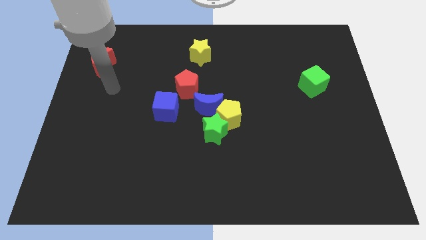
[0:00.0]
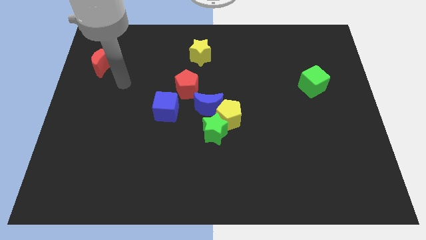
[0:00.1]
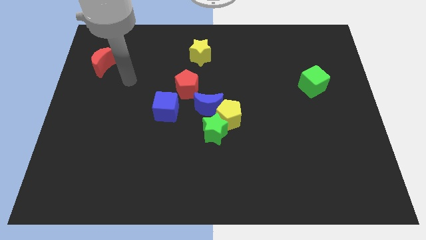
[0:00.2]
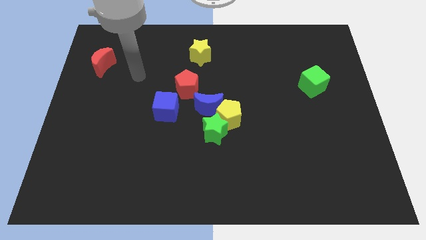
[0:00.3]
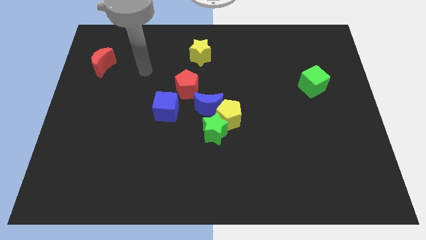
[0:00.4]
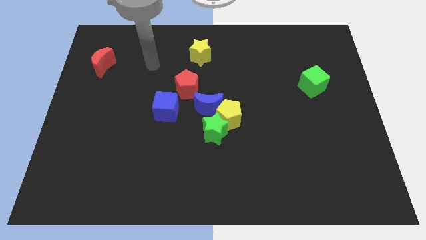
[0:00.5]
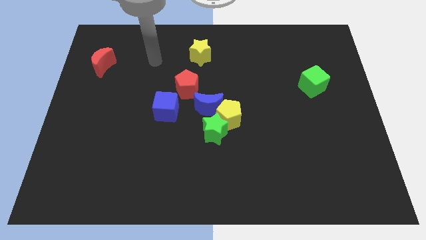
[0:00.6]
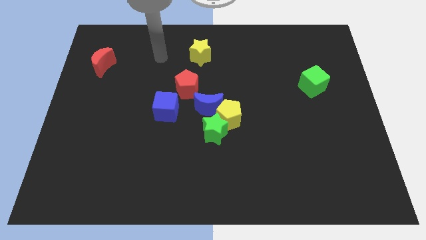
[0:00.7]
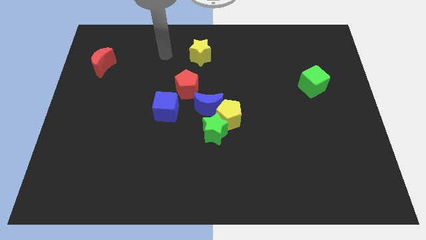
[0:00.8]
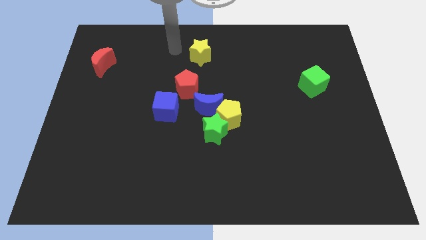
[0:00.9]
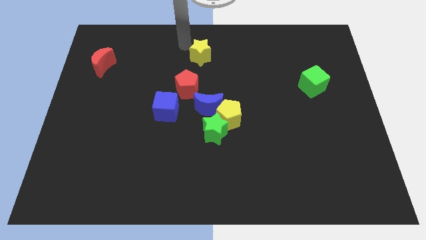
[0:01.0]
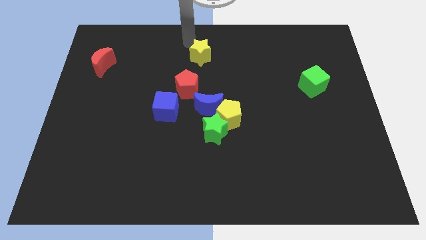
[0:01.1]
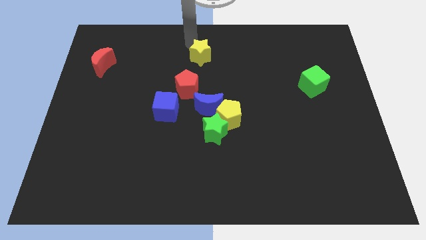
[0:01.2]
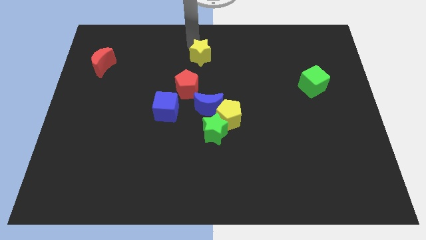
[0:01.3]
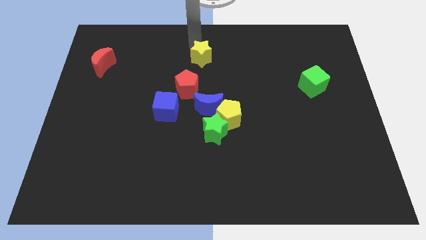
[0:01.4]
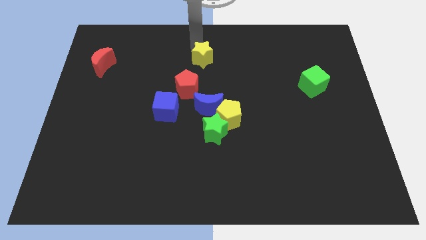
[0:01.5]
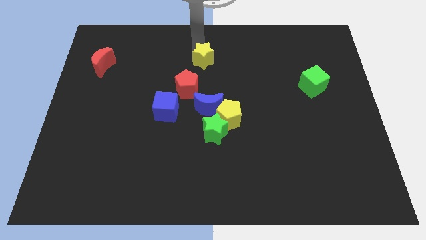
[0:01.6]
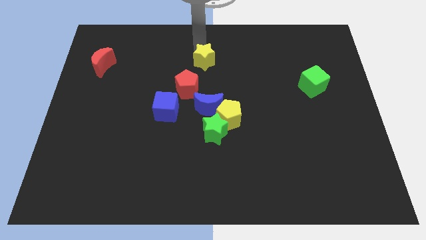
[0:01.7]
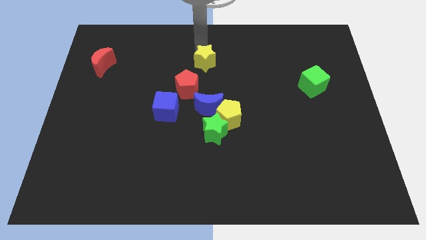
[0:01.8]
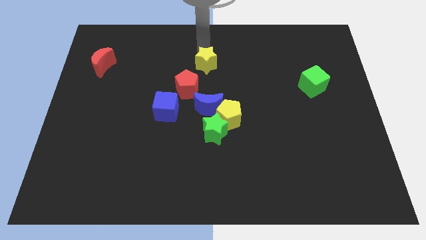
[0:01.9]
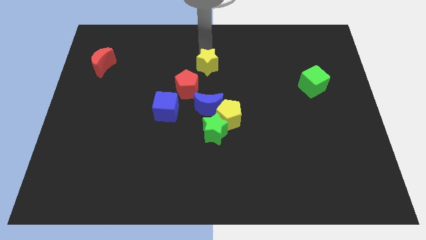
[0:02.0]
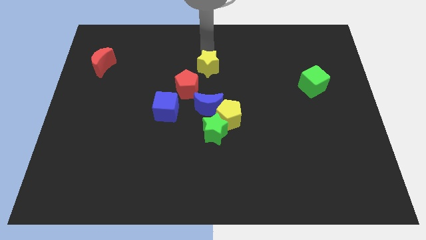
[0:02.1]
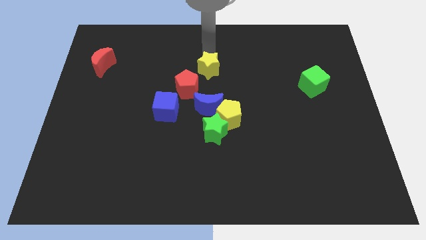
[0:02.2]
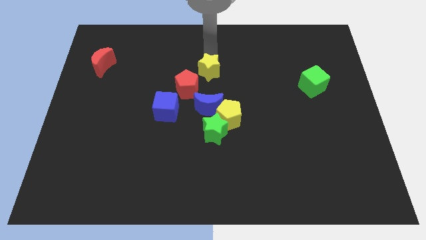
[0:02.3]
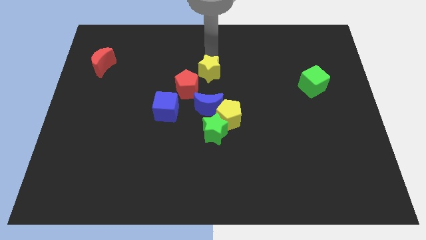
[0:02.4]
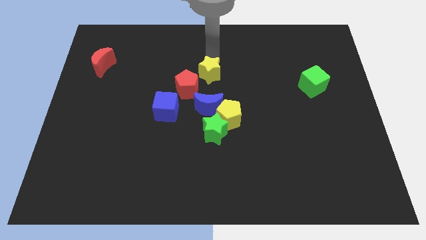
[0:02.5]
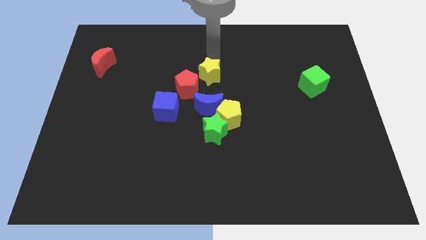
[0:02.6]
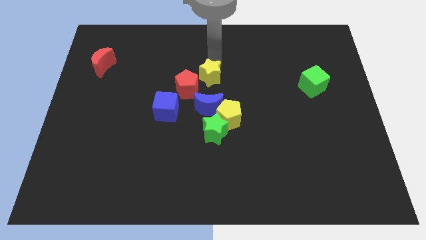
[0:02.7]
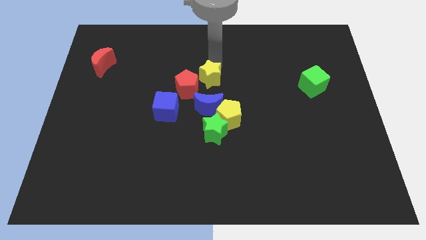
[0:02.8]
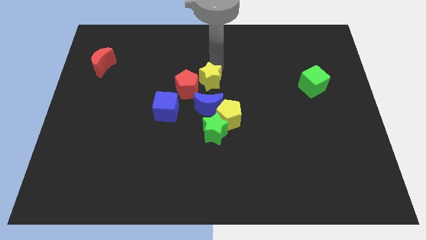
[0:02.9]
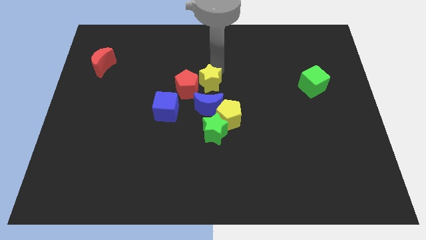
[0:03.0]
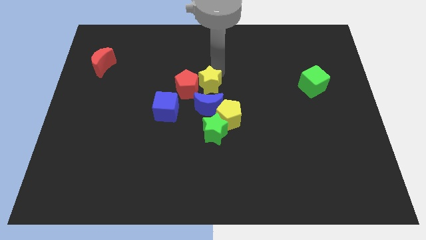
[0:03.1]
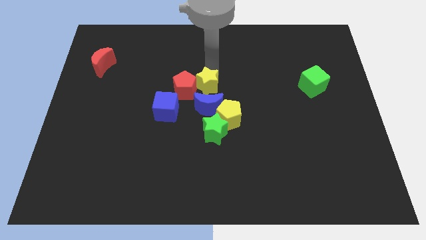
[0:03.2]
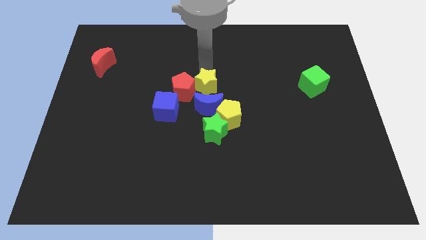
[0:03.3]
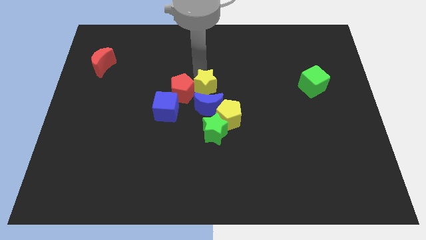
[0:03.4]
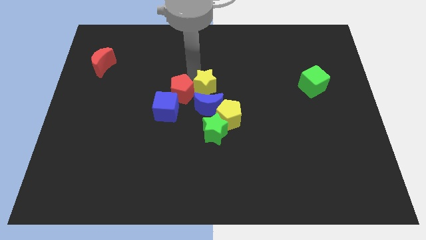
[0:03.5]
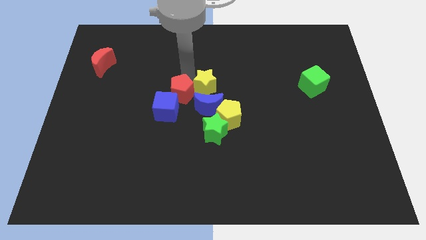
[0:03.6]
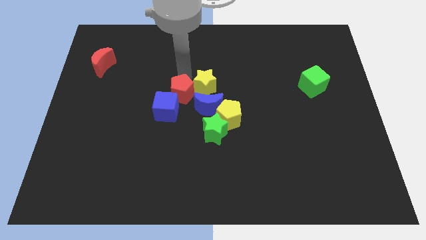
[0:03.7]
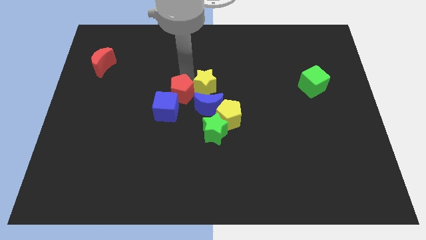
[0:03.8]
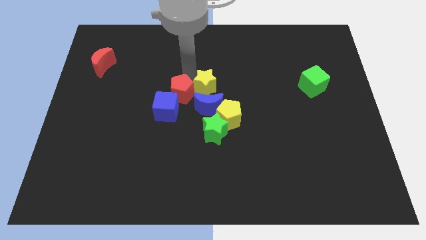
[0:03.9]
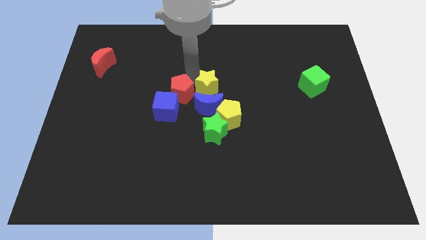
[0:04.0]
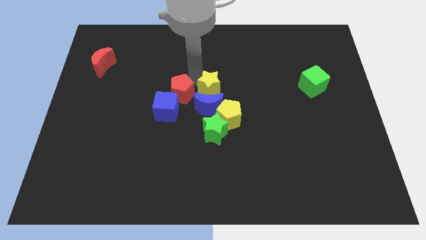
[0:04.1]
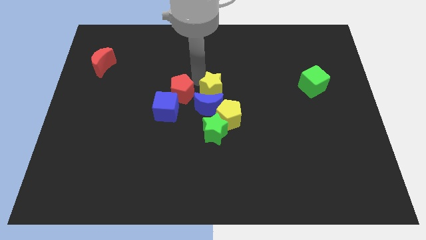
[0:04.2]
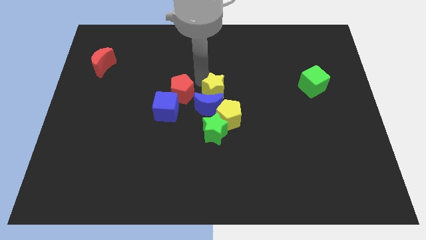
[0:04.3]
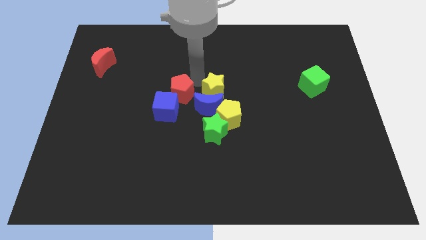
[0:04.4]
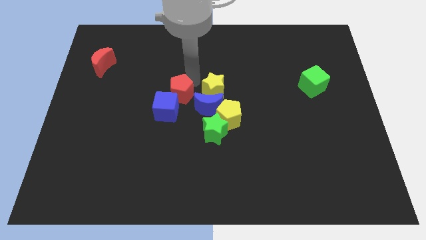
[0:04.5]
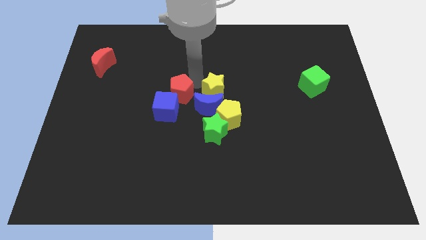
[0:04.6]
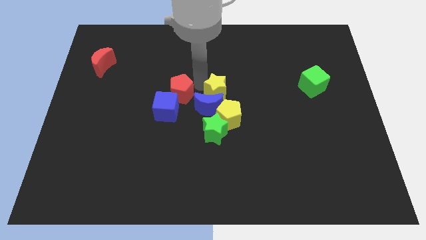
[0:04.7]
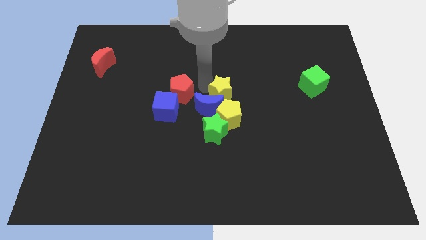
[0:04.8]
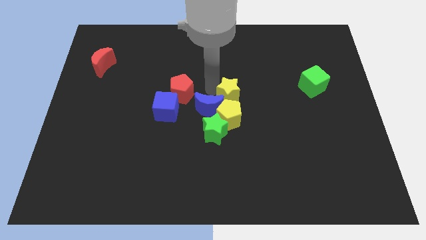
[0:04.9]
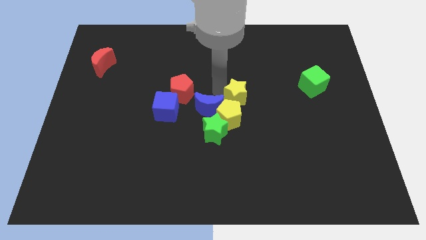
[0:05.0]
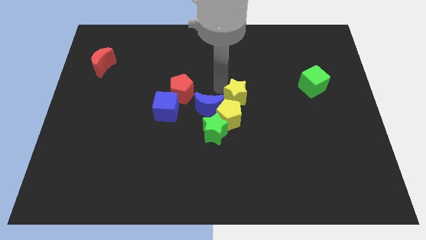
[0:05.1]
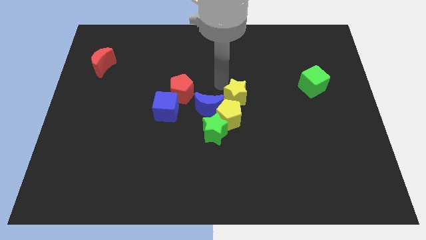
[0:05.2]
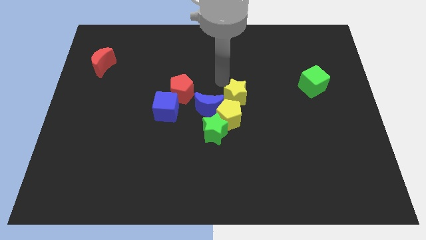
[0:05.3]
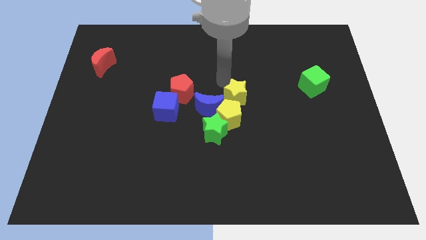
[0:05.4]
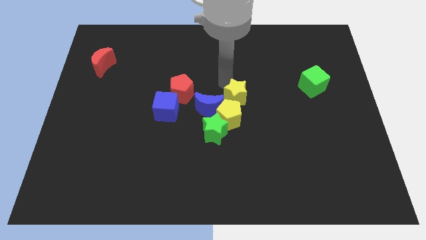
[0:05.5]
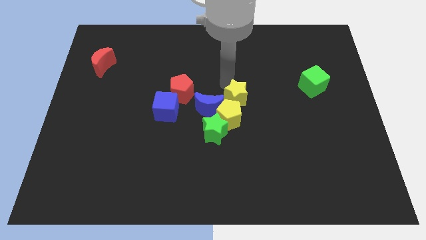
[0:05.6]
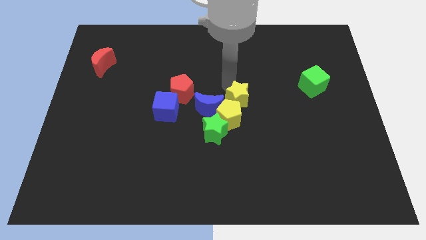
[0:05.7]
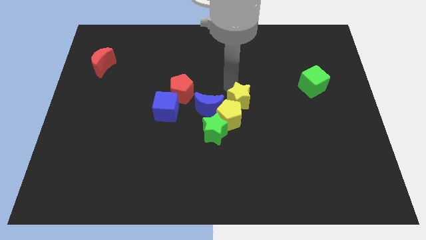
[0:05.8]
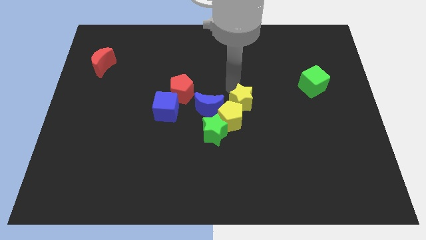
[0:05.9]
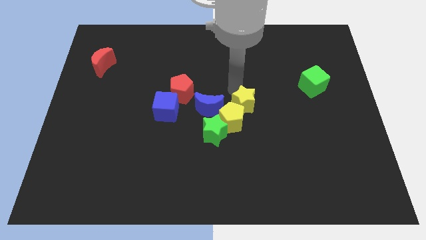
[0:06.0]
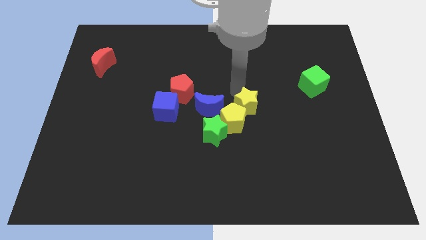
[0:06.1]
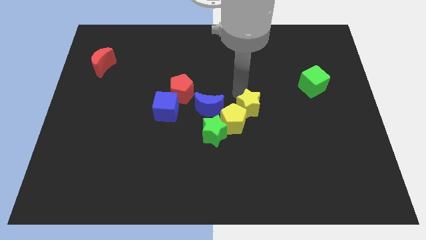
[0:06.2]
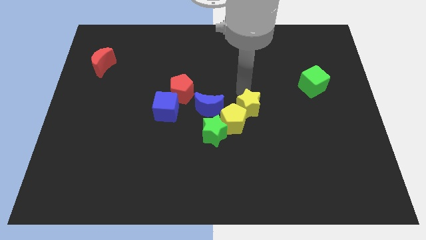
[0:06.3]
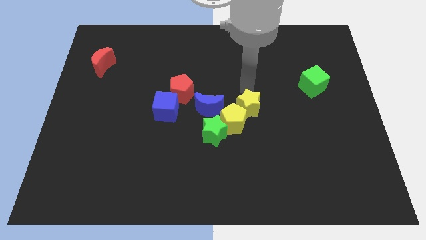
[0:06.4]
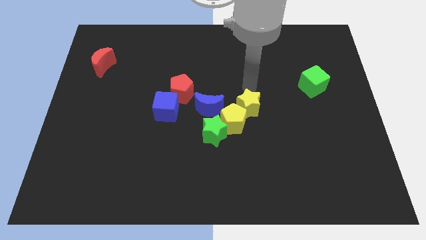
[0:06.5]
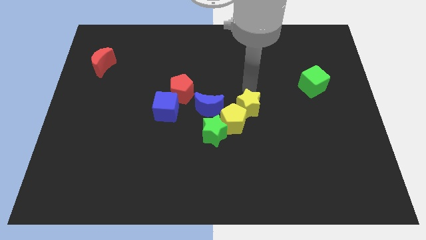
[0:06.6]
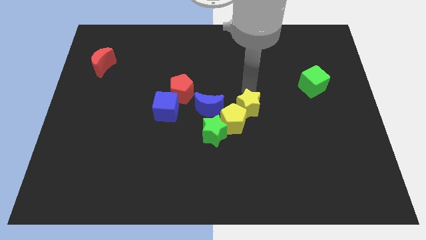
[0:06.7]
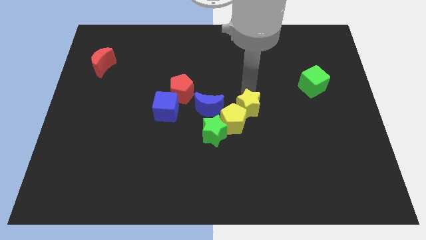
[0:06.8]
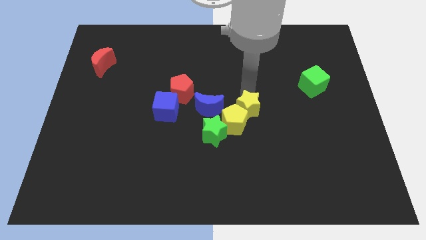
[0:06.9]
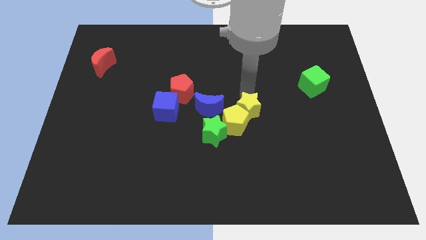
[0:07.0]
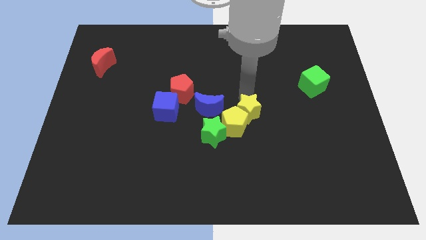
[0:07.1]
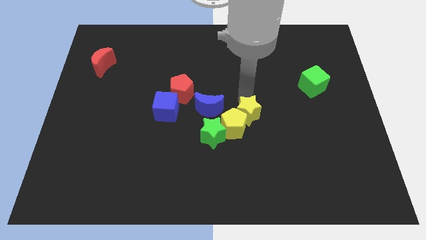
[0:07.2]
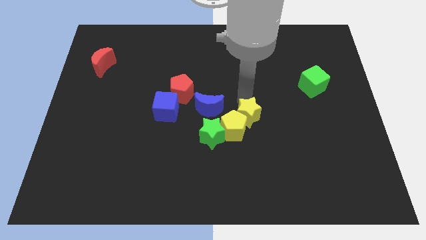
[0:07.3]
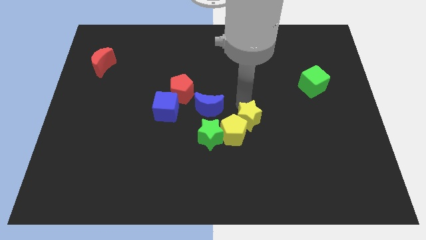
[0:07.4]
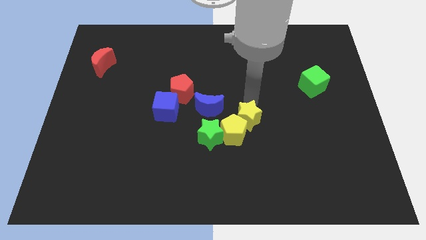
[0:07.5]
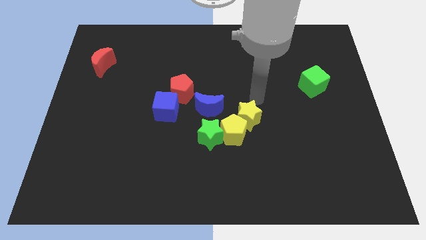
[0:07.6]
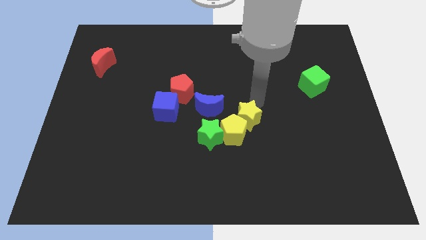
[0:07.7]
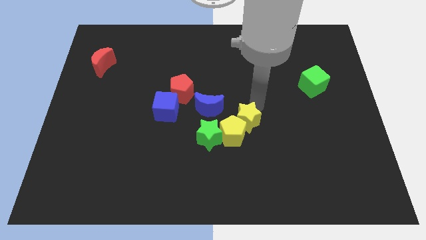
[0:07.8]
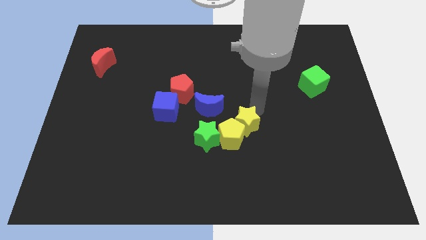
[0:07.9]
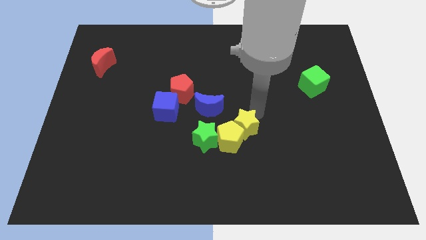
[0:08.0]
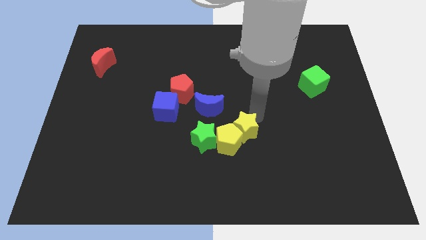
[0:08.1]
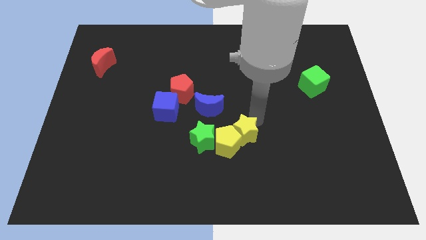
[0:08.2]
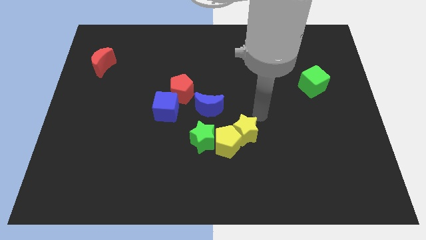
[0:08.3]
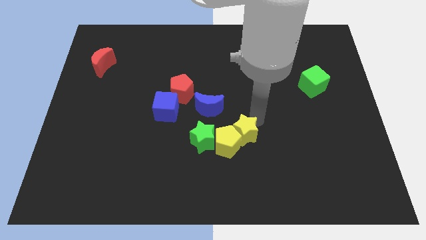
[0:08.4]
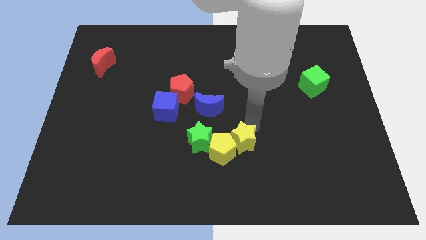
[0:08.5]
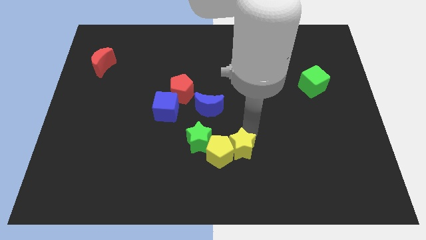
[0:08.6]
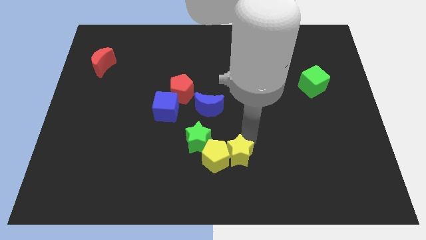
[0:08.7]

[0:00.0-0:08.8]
slide the yellow star to the bottom right of the green star
